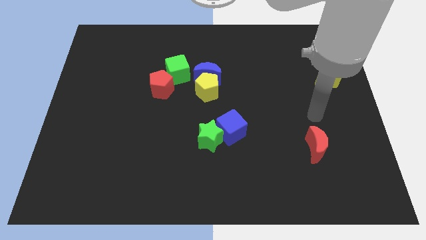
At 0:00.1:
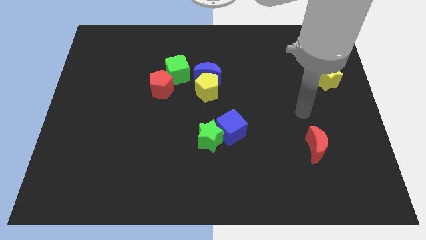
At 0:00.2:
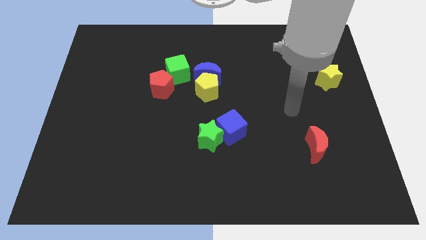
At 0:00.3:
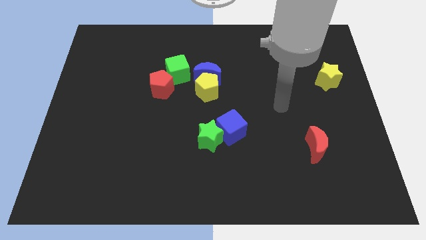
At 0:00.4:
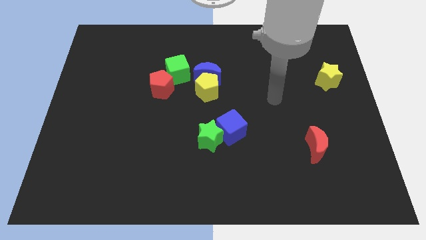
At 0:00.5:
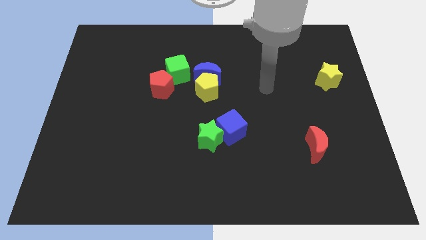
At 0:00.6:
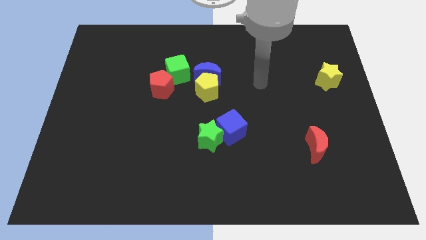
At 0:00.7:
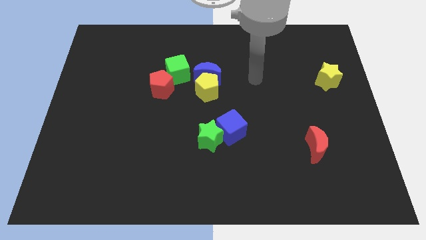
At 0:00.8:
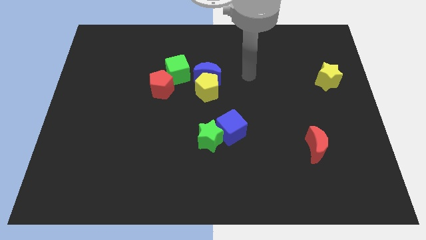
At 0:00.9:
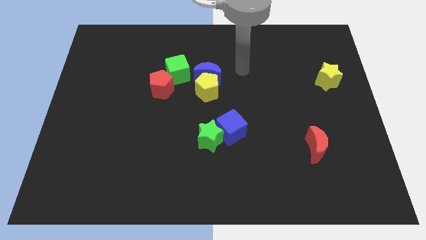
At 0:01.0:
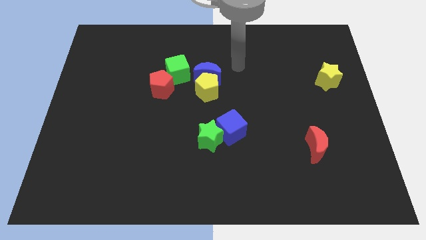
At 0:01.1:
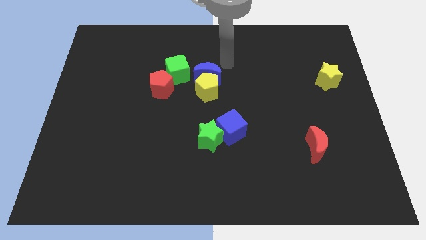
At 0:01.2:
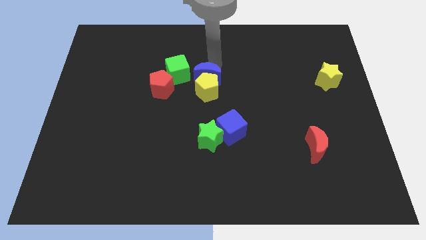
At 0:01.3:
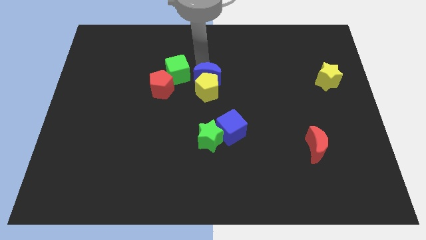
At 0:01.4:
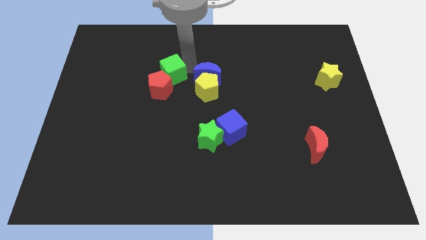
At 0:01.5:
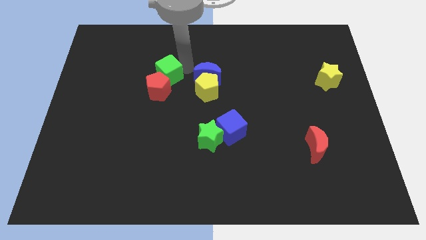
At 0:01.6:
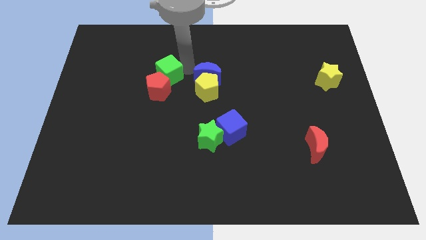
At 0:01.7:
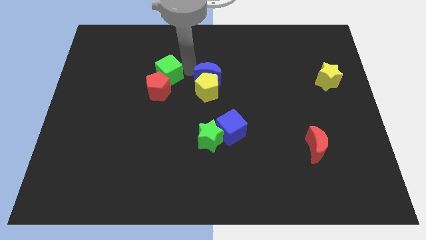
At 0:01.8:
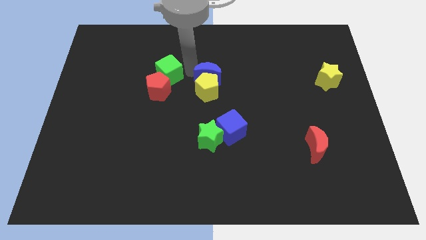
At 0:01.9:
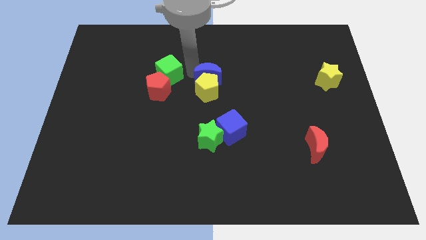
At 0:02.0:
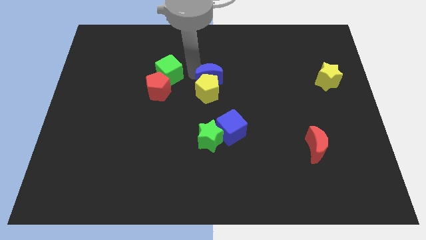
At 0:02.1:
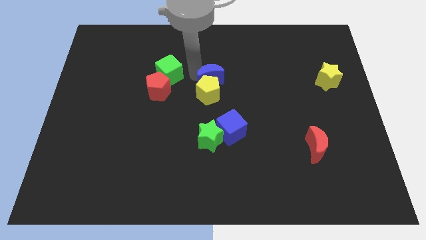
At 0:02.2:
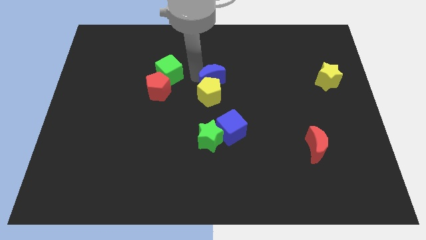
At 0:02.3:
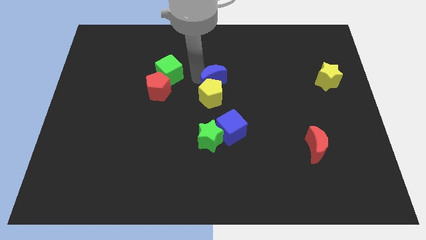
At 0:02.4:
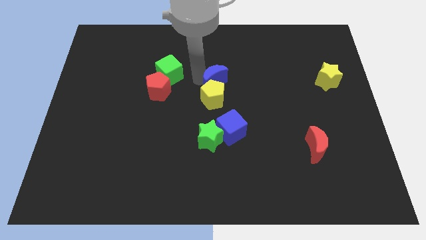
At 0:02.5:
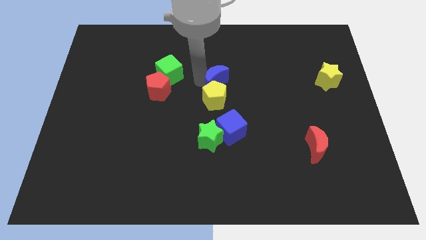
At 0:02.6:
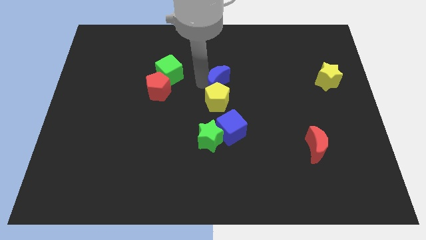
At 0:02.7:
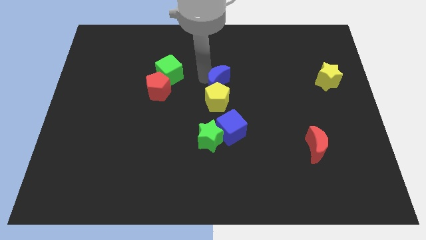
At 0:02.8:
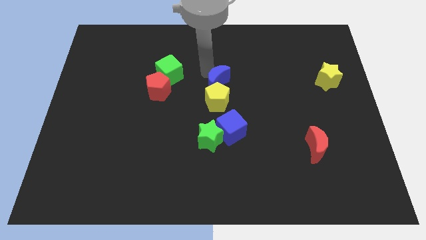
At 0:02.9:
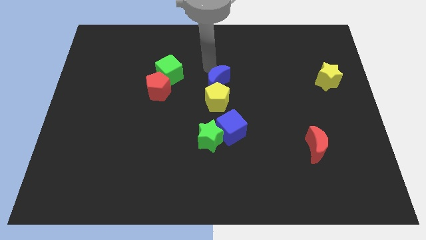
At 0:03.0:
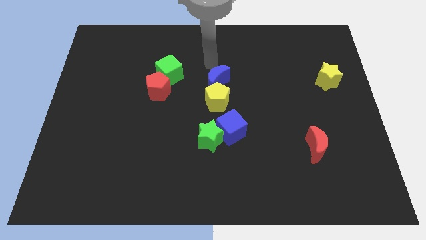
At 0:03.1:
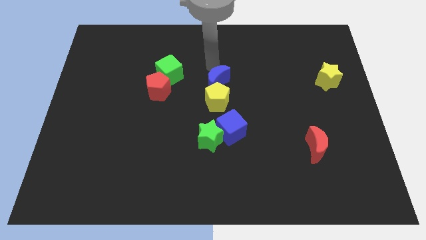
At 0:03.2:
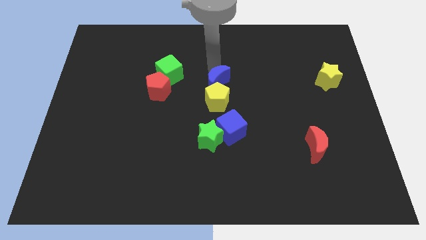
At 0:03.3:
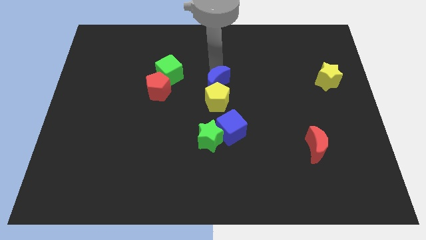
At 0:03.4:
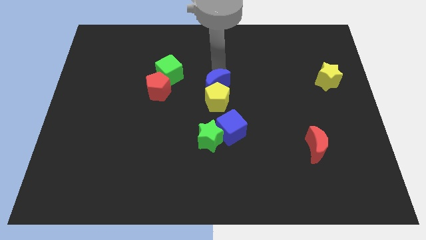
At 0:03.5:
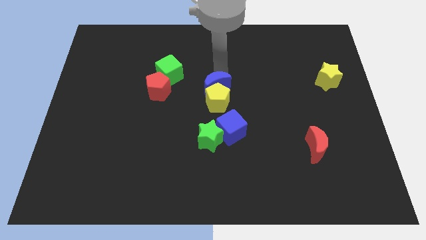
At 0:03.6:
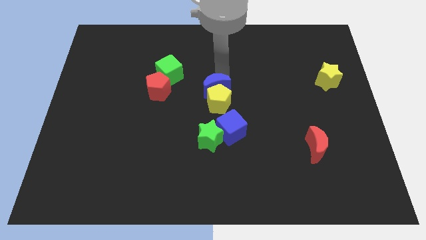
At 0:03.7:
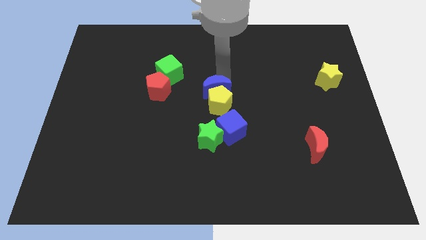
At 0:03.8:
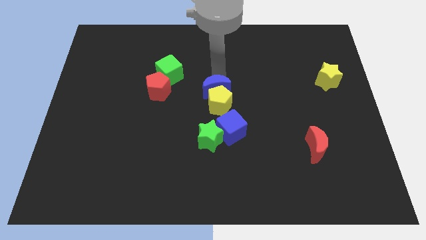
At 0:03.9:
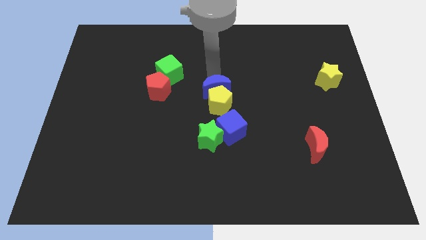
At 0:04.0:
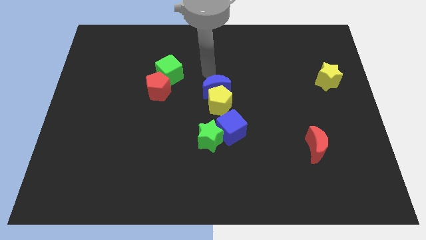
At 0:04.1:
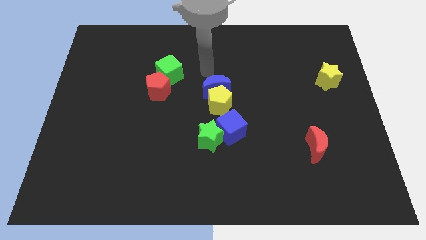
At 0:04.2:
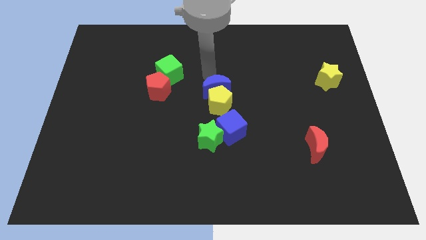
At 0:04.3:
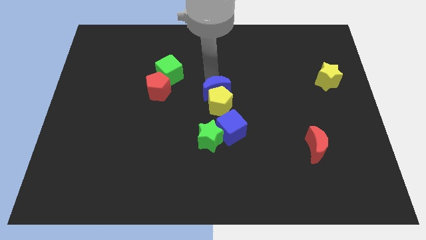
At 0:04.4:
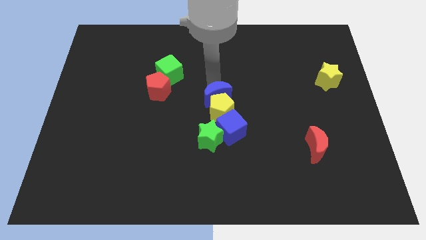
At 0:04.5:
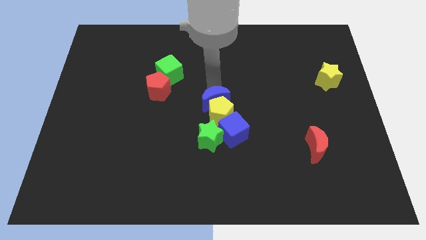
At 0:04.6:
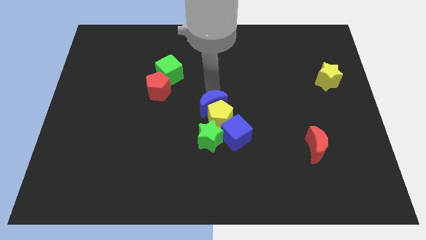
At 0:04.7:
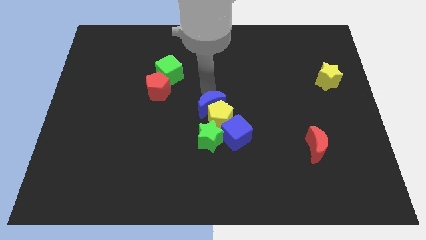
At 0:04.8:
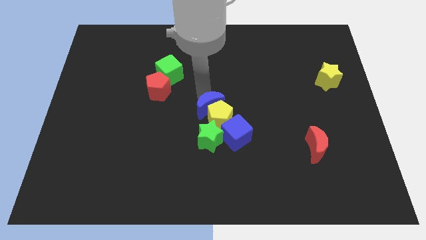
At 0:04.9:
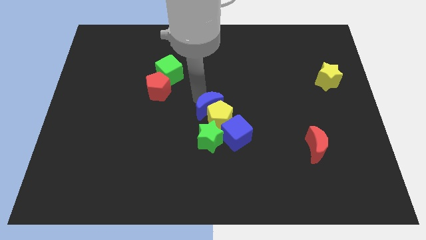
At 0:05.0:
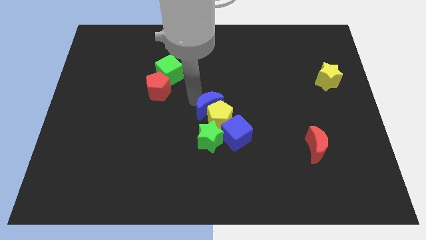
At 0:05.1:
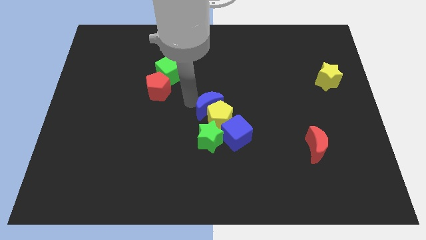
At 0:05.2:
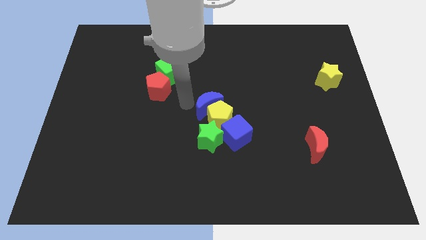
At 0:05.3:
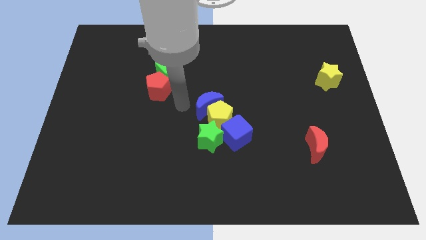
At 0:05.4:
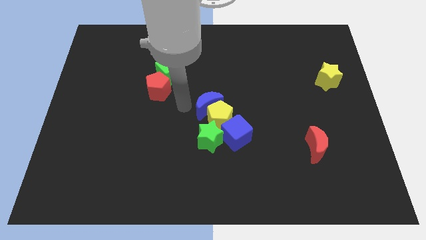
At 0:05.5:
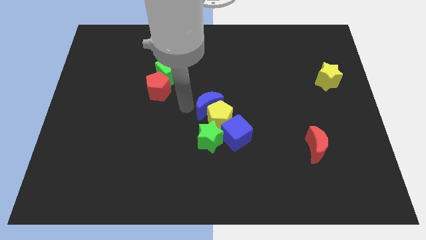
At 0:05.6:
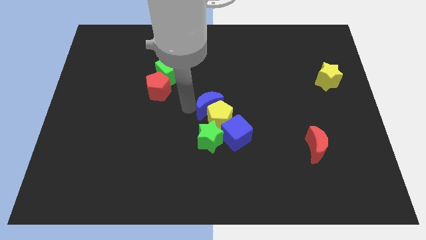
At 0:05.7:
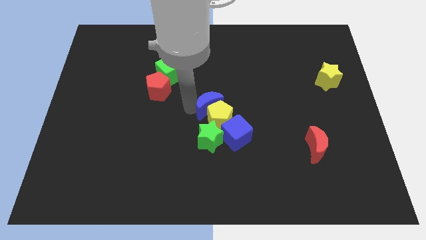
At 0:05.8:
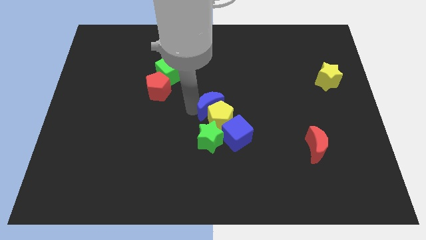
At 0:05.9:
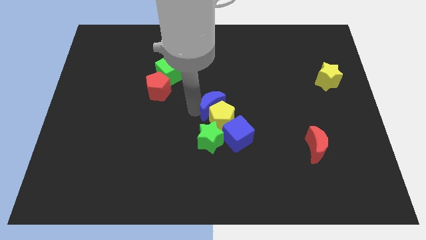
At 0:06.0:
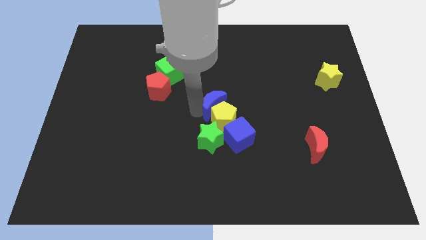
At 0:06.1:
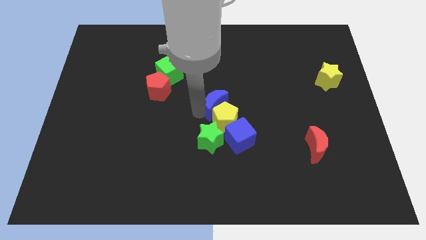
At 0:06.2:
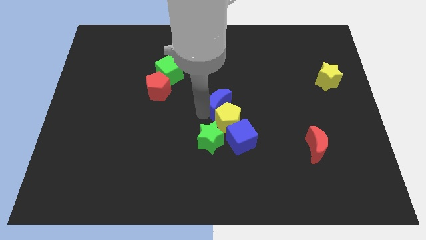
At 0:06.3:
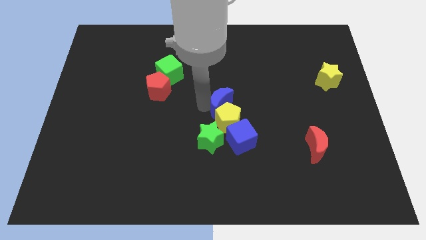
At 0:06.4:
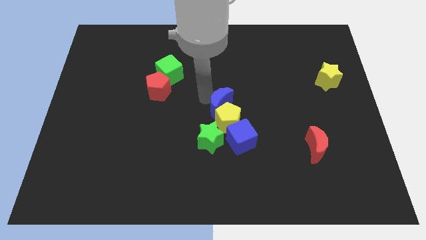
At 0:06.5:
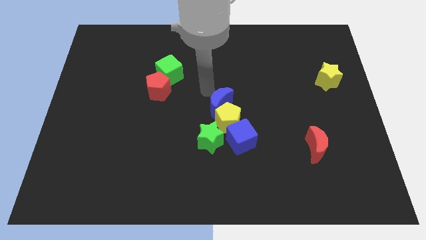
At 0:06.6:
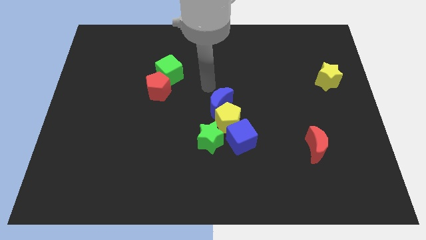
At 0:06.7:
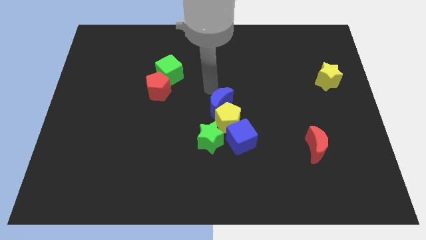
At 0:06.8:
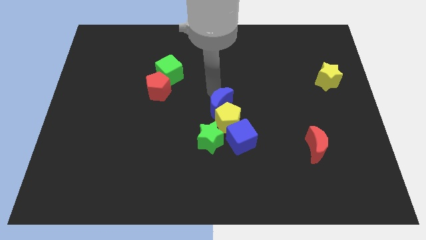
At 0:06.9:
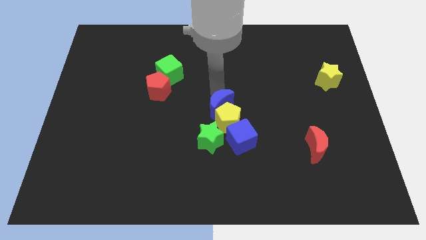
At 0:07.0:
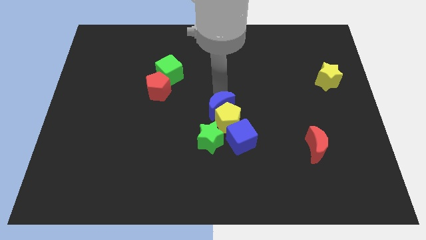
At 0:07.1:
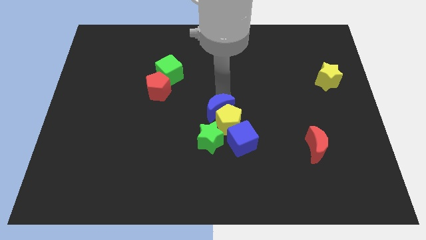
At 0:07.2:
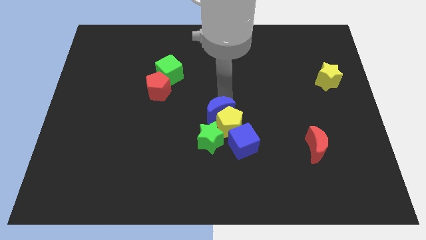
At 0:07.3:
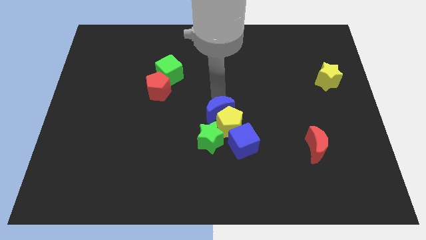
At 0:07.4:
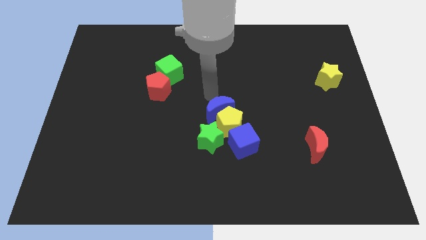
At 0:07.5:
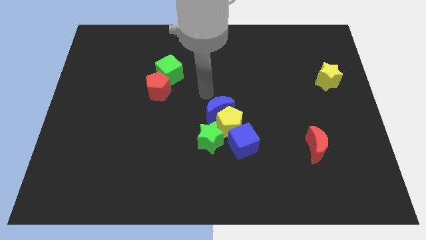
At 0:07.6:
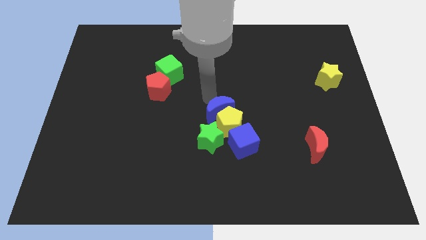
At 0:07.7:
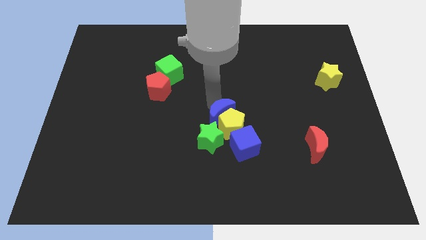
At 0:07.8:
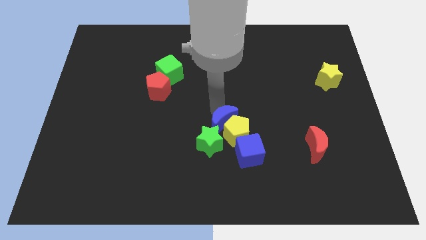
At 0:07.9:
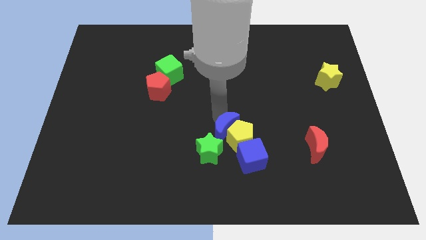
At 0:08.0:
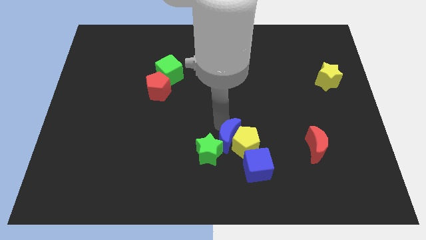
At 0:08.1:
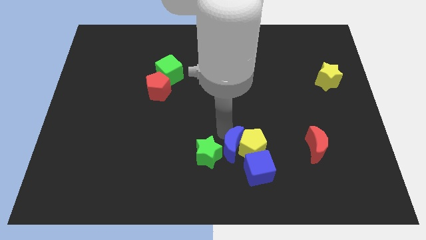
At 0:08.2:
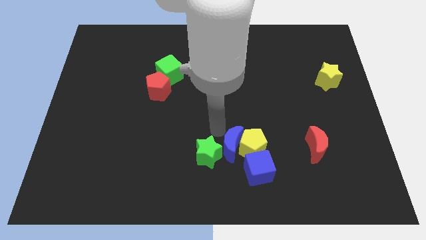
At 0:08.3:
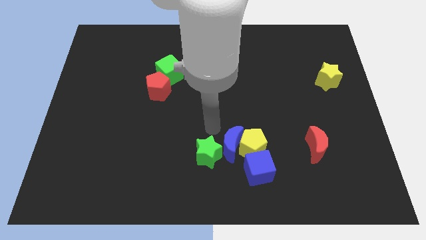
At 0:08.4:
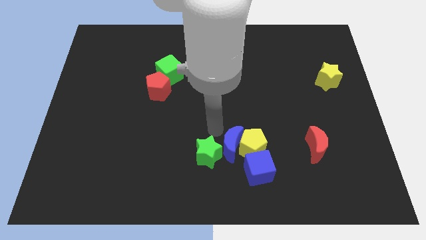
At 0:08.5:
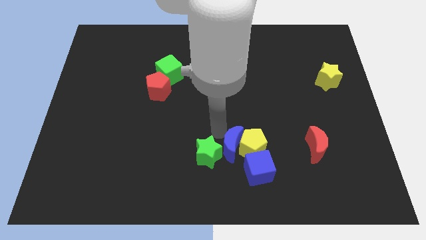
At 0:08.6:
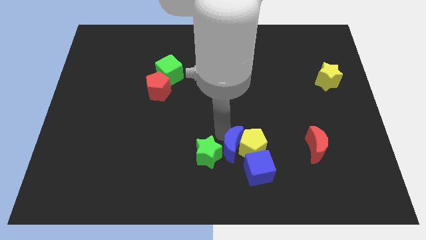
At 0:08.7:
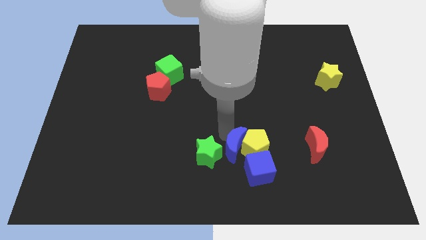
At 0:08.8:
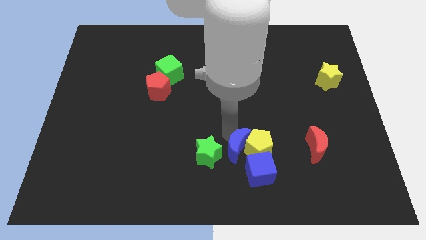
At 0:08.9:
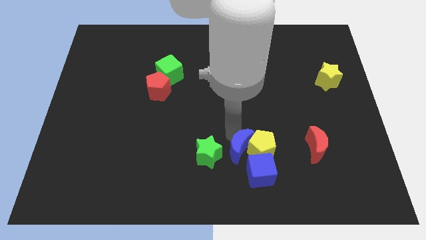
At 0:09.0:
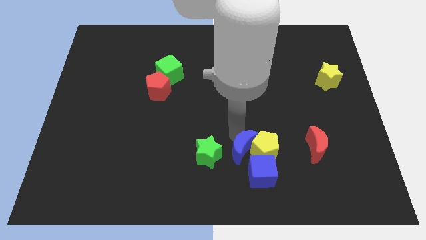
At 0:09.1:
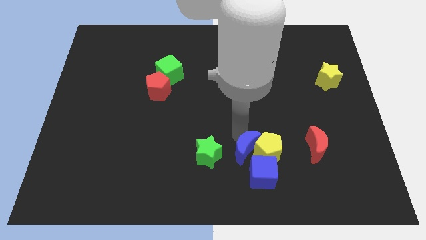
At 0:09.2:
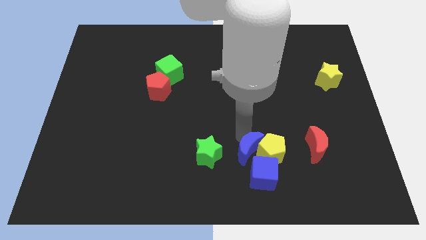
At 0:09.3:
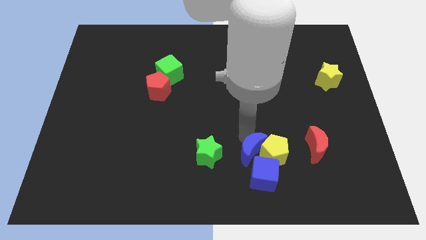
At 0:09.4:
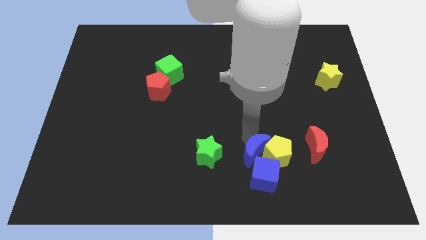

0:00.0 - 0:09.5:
move the blue moon close to the blue cube
